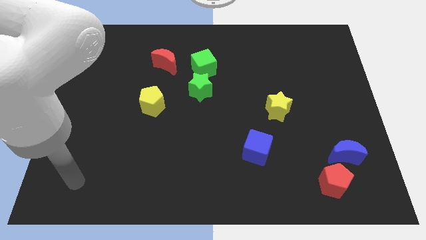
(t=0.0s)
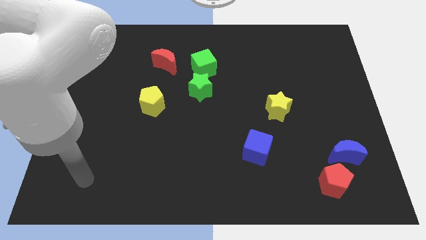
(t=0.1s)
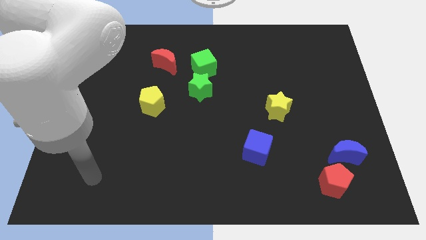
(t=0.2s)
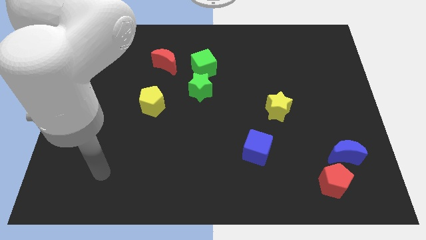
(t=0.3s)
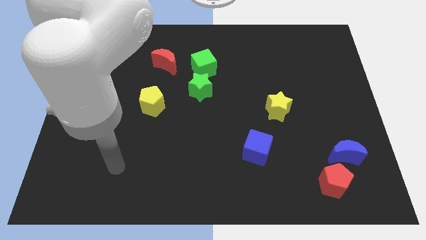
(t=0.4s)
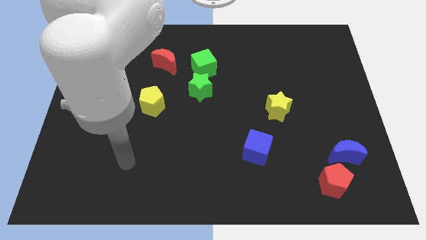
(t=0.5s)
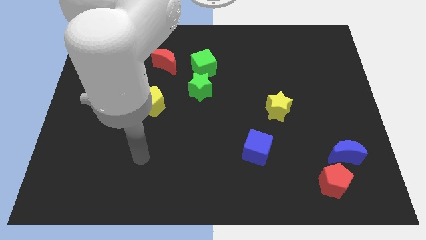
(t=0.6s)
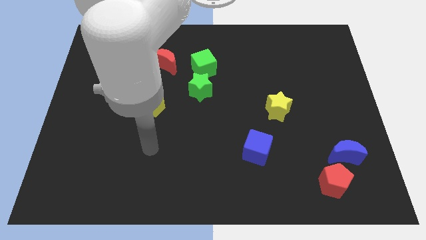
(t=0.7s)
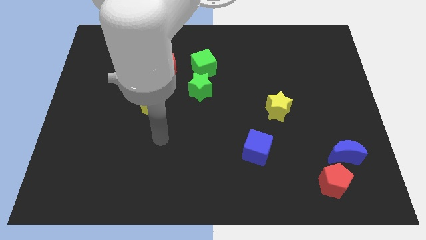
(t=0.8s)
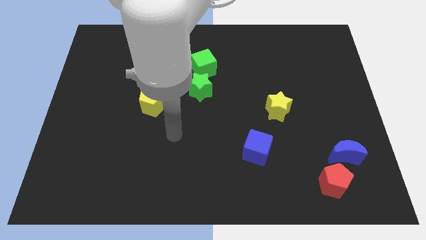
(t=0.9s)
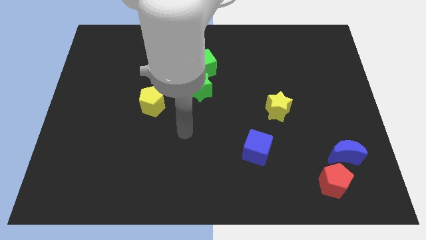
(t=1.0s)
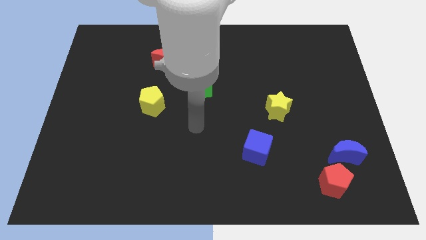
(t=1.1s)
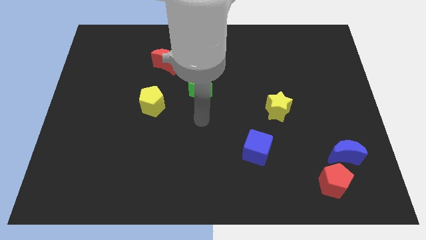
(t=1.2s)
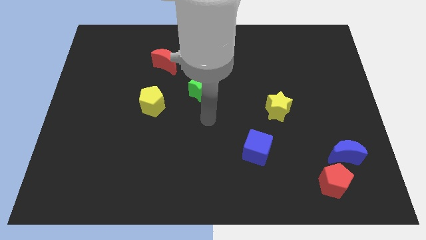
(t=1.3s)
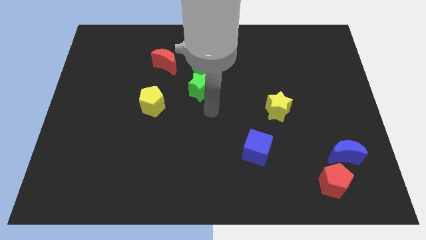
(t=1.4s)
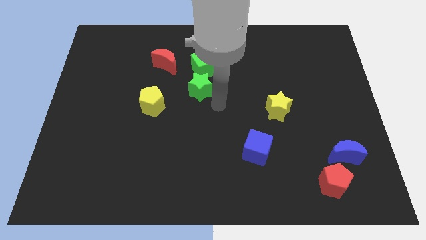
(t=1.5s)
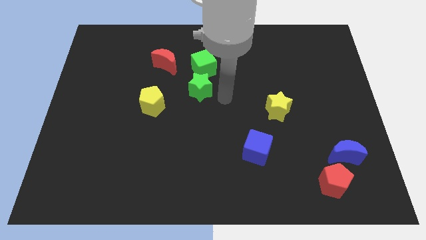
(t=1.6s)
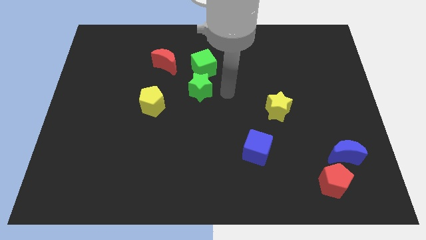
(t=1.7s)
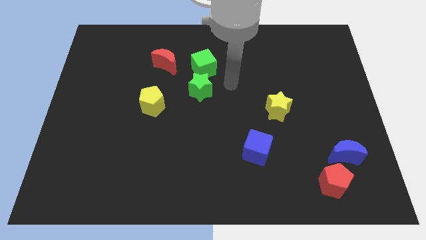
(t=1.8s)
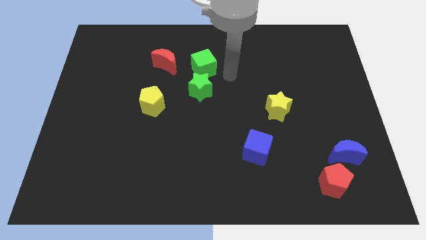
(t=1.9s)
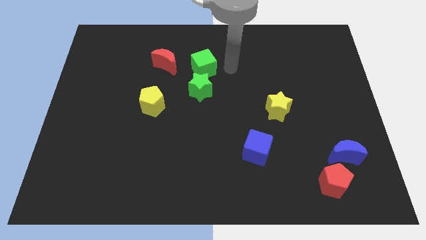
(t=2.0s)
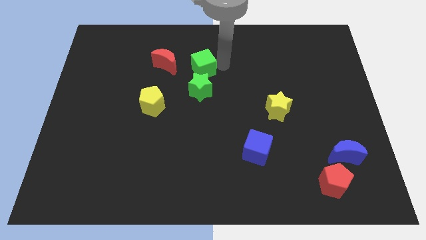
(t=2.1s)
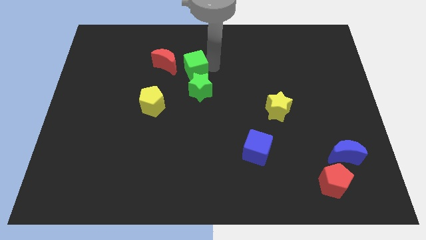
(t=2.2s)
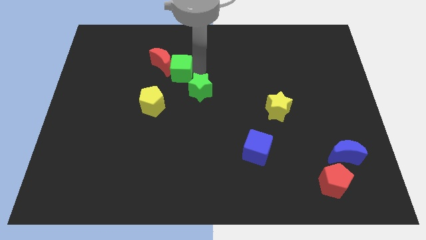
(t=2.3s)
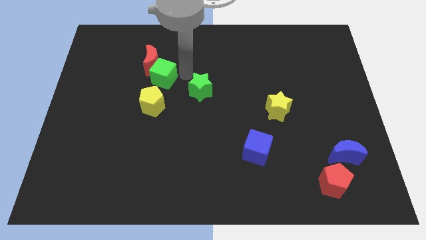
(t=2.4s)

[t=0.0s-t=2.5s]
pull the green star apart from the green cube

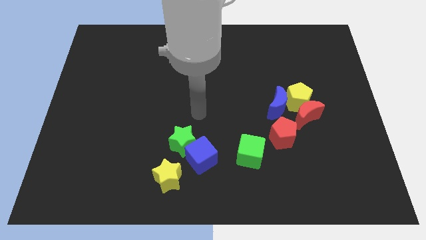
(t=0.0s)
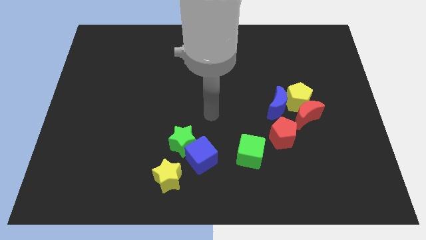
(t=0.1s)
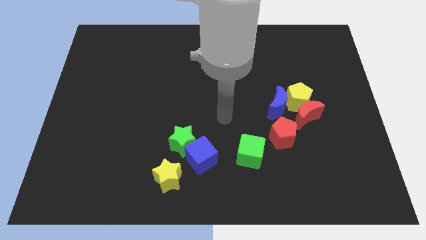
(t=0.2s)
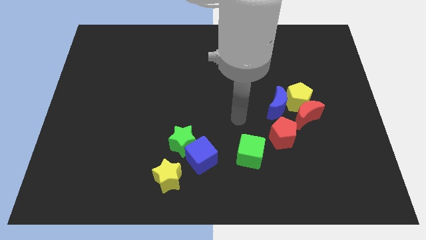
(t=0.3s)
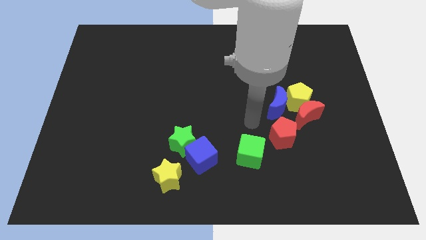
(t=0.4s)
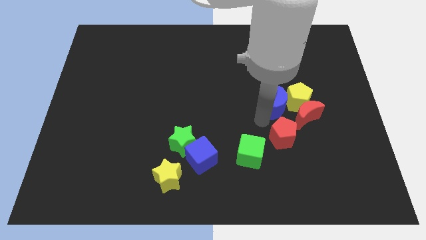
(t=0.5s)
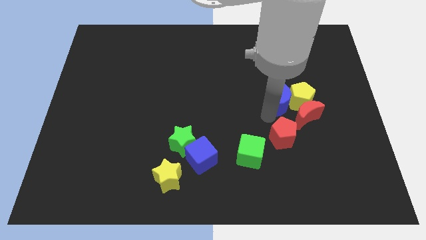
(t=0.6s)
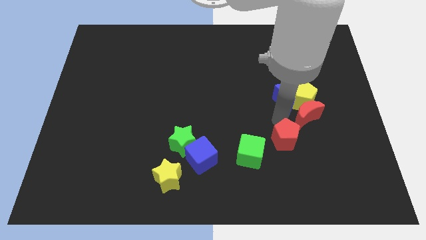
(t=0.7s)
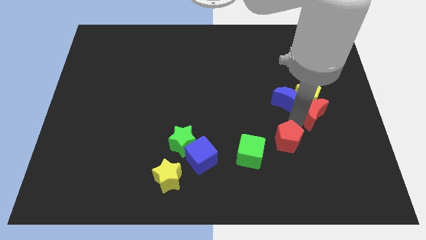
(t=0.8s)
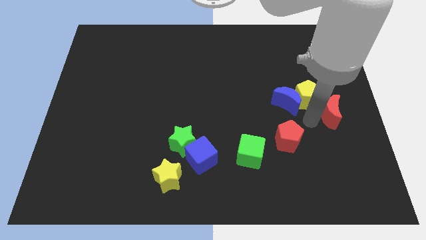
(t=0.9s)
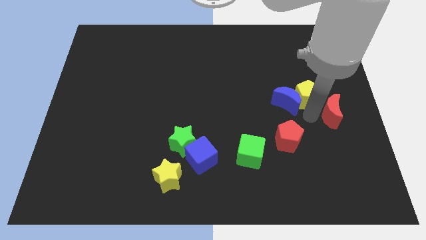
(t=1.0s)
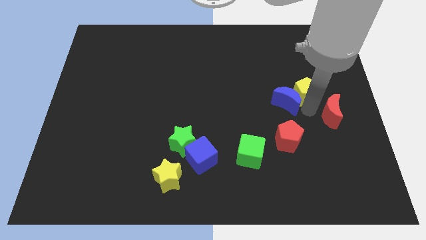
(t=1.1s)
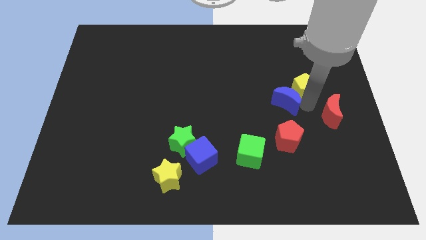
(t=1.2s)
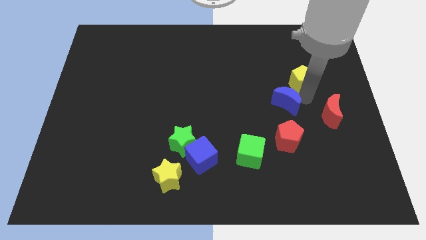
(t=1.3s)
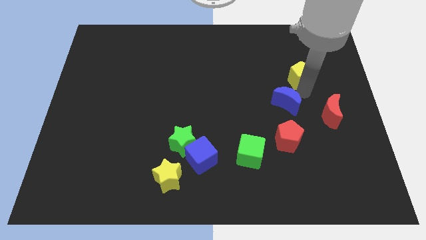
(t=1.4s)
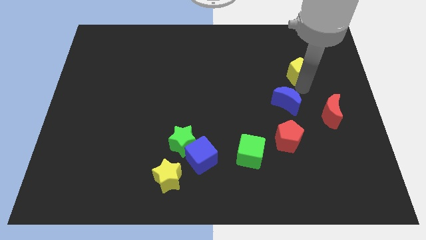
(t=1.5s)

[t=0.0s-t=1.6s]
move the yellow pentagon away from the red moon and blue moon

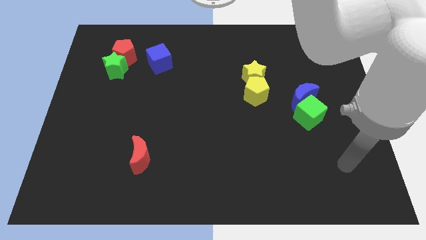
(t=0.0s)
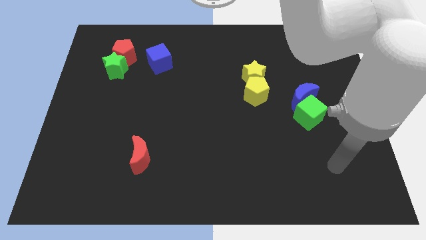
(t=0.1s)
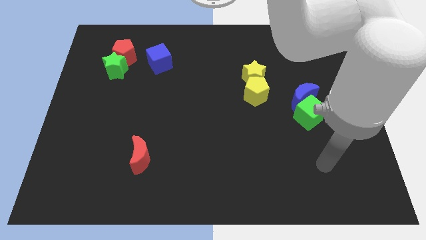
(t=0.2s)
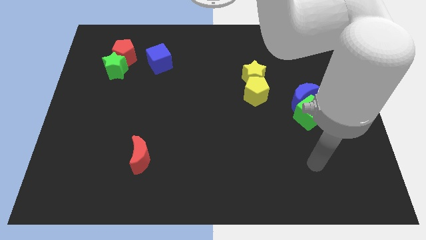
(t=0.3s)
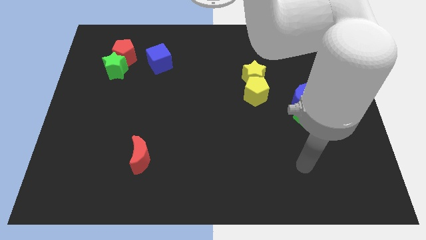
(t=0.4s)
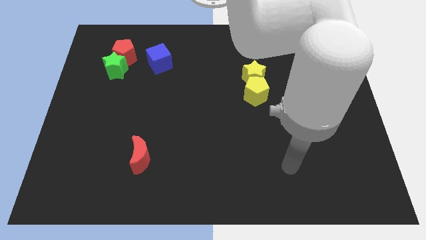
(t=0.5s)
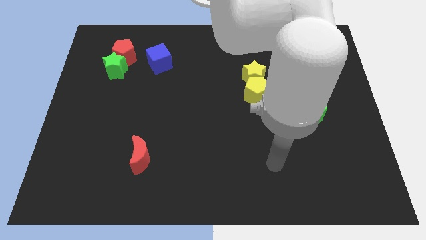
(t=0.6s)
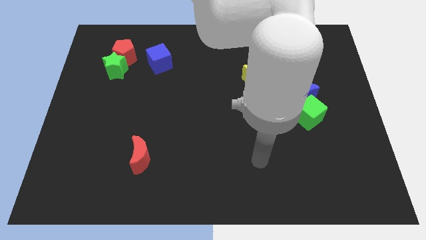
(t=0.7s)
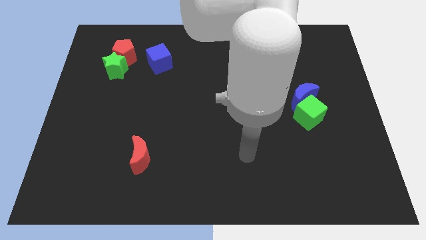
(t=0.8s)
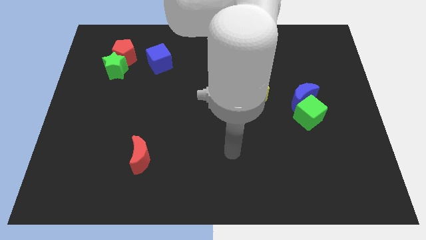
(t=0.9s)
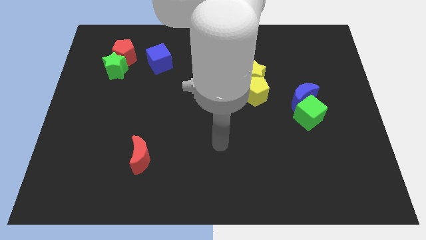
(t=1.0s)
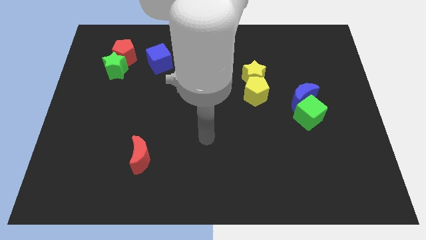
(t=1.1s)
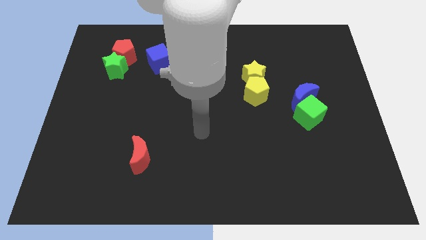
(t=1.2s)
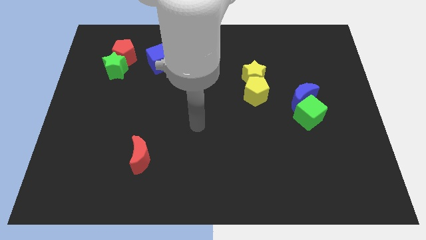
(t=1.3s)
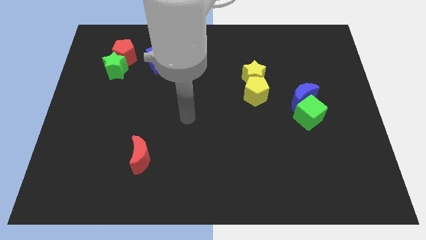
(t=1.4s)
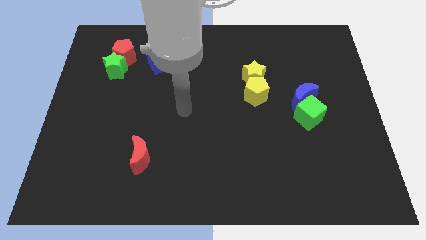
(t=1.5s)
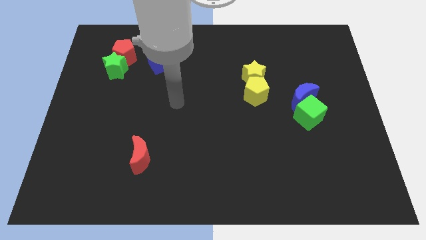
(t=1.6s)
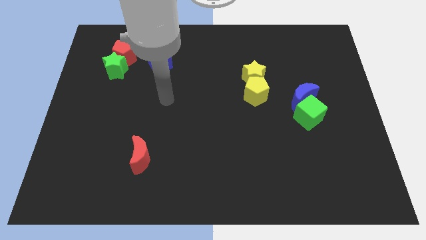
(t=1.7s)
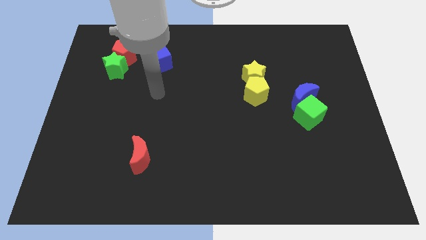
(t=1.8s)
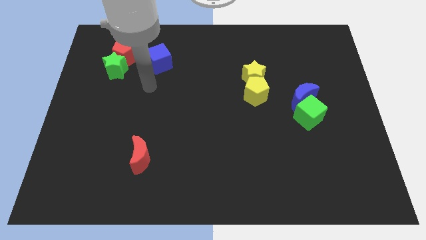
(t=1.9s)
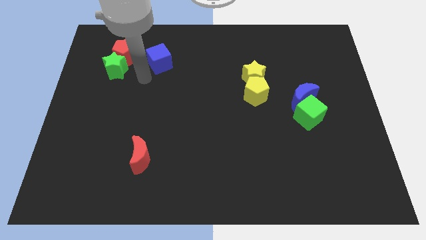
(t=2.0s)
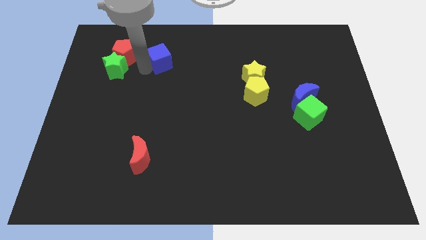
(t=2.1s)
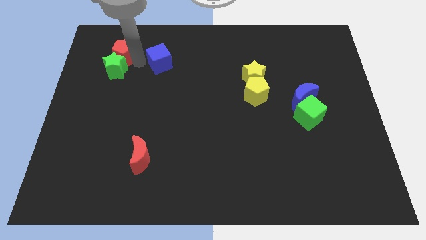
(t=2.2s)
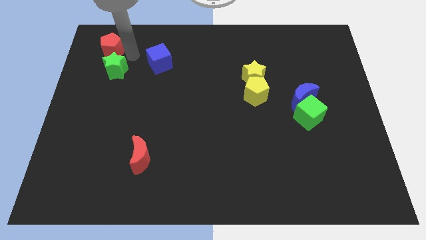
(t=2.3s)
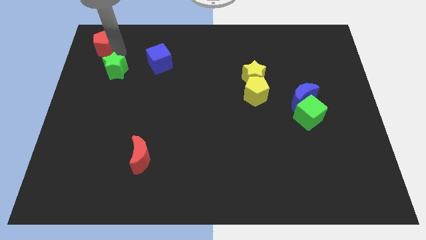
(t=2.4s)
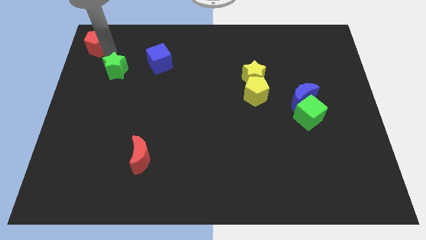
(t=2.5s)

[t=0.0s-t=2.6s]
move the green star away from the red pentagon

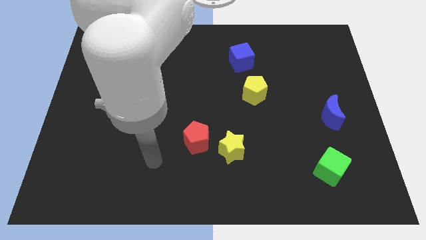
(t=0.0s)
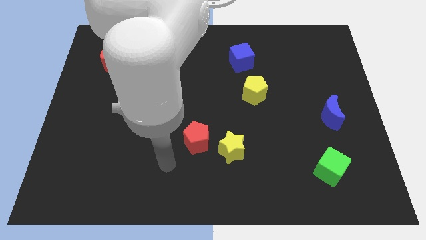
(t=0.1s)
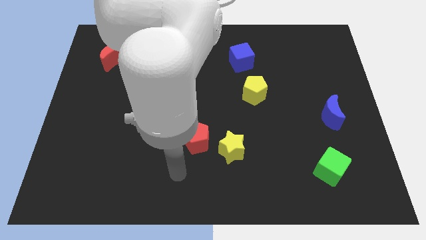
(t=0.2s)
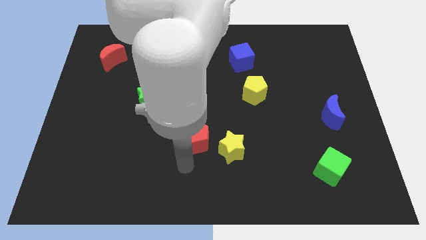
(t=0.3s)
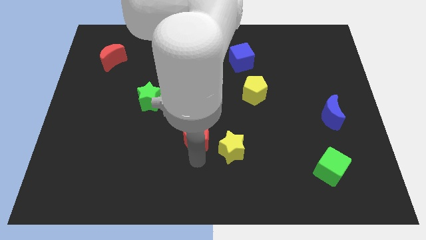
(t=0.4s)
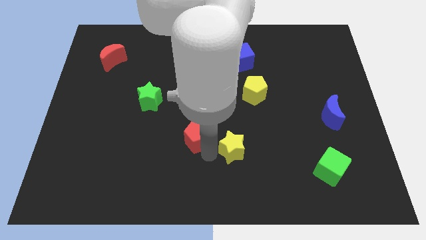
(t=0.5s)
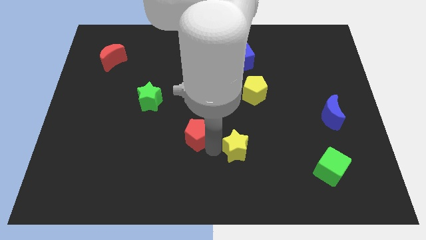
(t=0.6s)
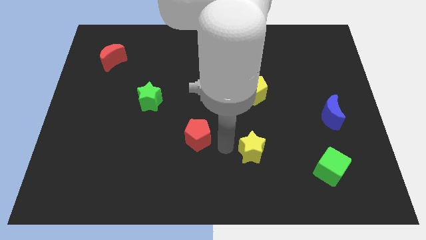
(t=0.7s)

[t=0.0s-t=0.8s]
pull the red pentagon apart from the yellow star

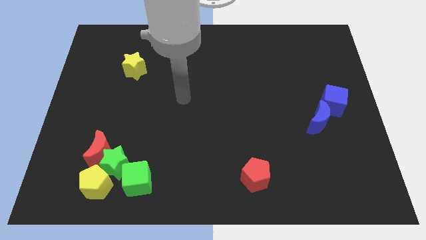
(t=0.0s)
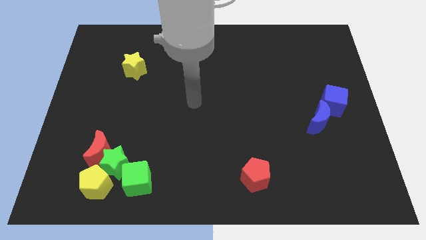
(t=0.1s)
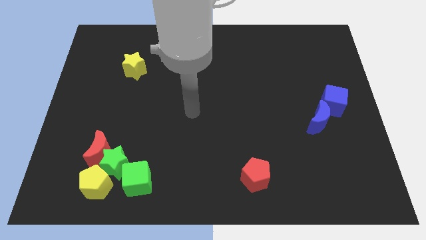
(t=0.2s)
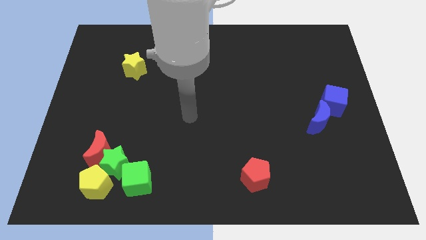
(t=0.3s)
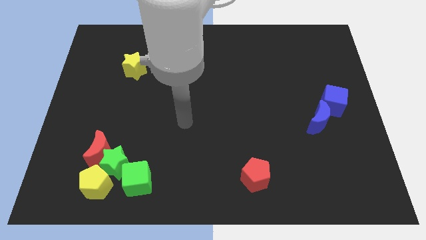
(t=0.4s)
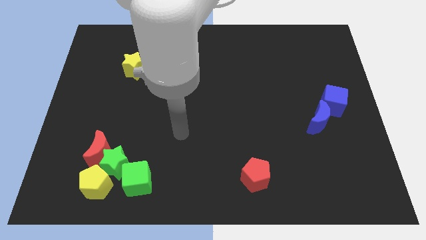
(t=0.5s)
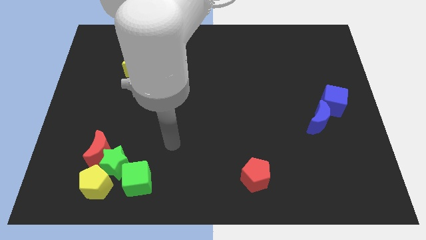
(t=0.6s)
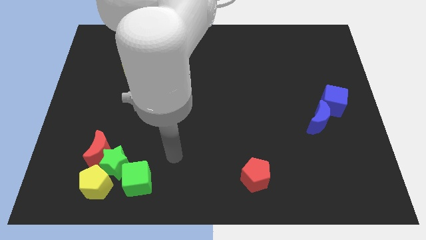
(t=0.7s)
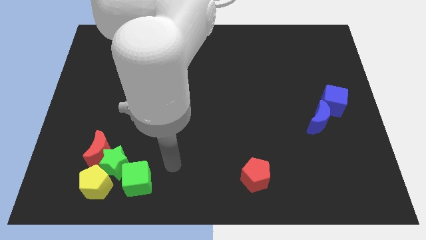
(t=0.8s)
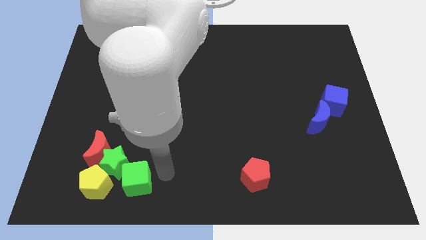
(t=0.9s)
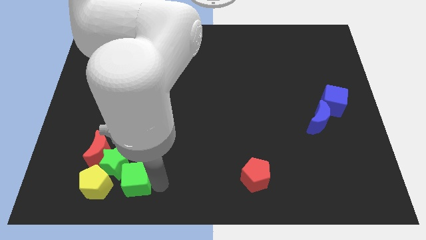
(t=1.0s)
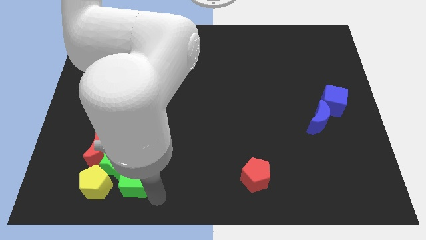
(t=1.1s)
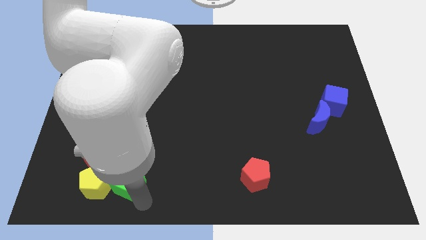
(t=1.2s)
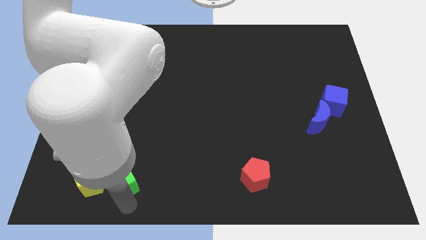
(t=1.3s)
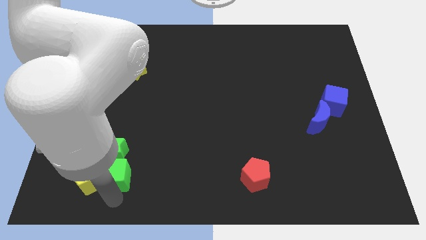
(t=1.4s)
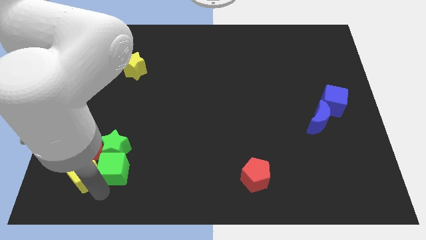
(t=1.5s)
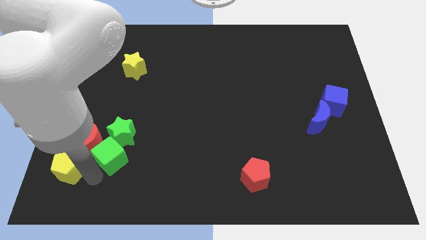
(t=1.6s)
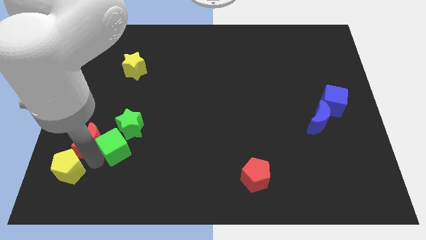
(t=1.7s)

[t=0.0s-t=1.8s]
pull the green star apart from the red moon, yellow pentagon, and green cube
